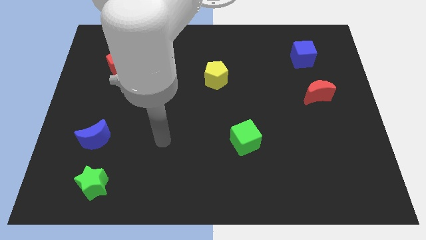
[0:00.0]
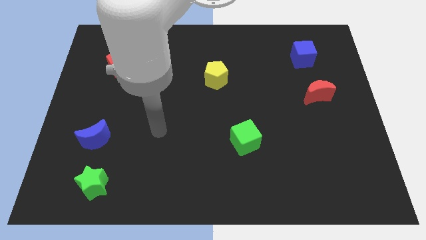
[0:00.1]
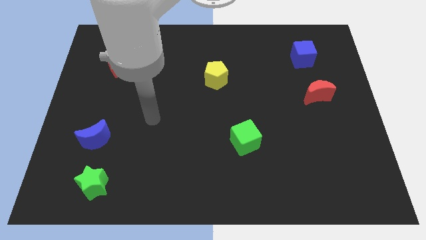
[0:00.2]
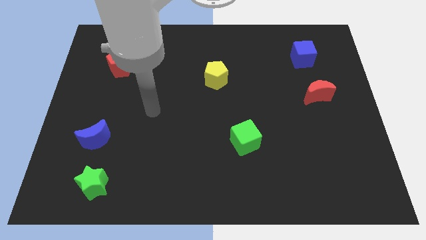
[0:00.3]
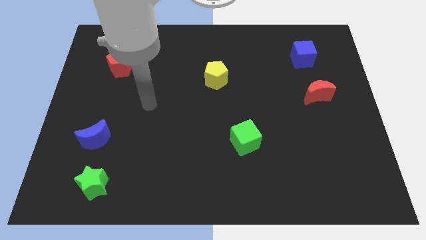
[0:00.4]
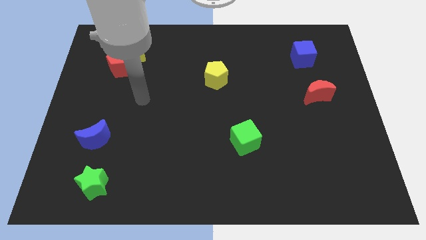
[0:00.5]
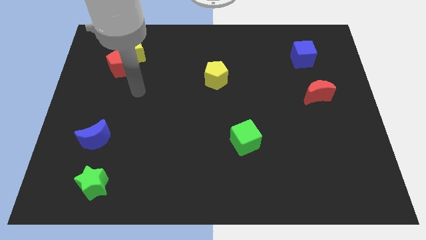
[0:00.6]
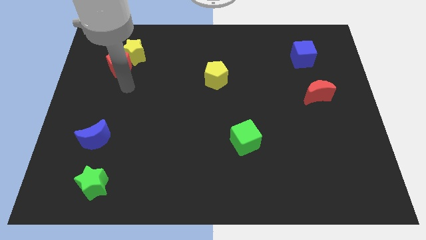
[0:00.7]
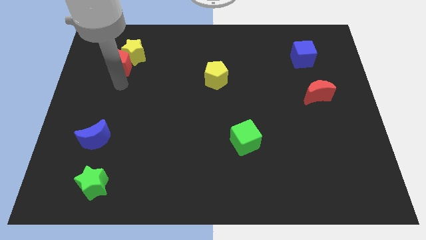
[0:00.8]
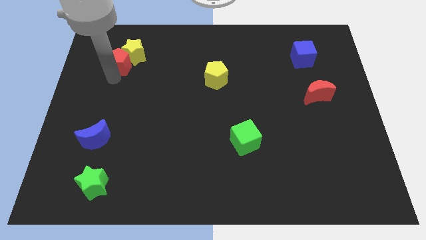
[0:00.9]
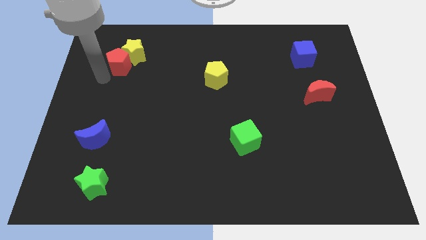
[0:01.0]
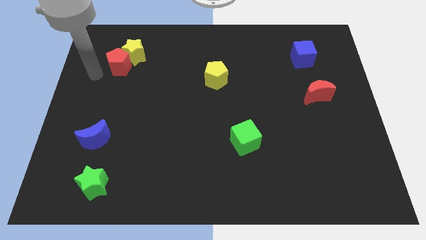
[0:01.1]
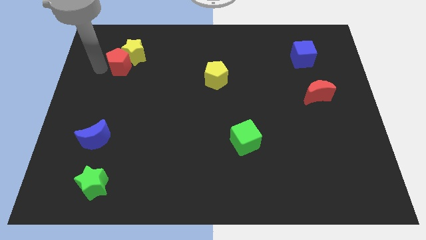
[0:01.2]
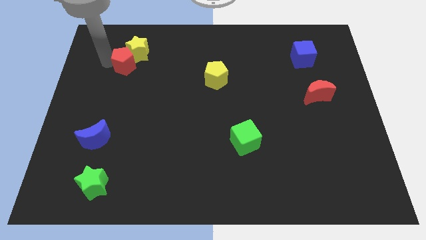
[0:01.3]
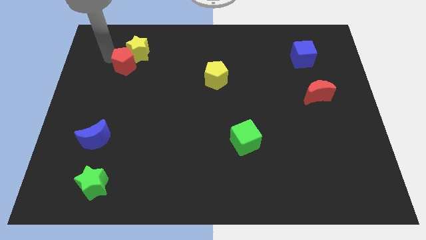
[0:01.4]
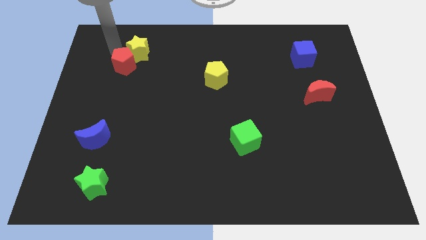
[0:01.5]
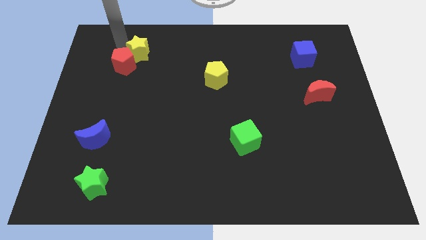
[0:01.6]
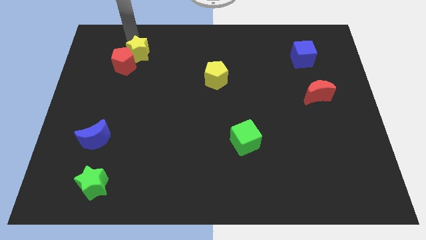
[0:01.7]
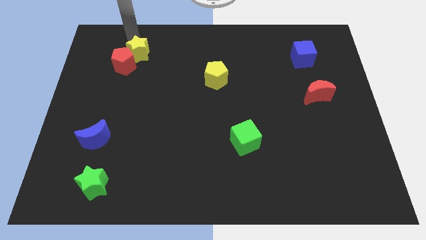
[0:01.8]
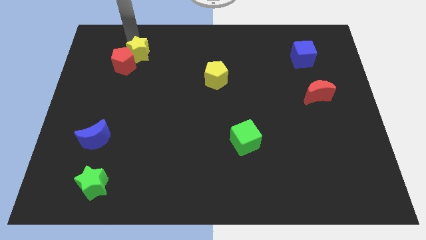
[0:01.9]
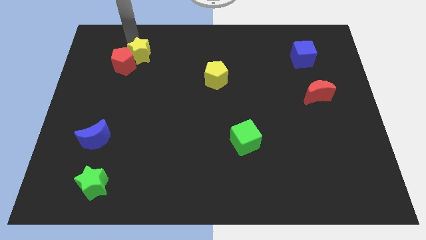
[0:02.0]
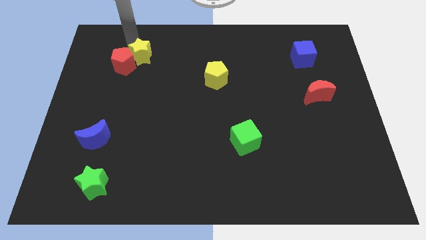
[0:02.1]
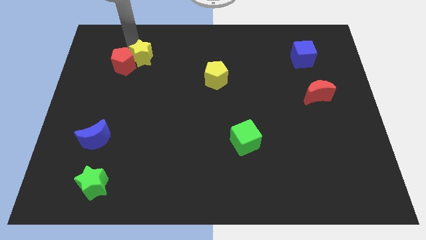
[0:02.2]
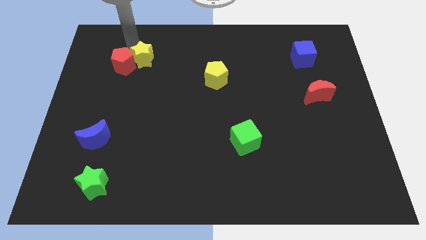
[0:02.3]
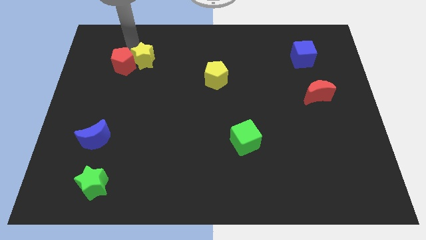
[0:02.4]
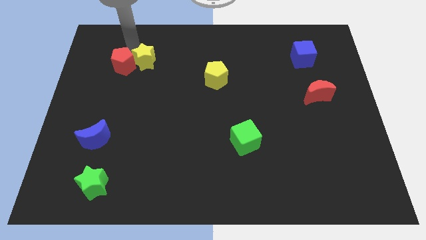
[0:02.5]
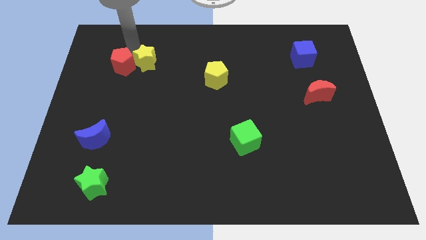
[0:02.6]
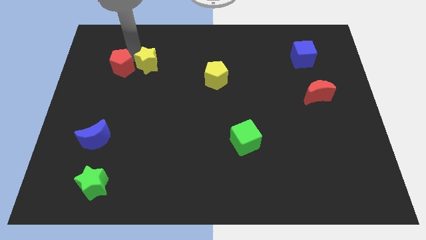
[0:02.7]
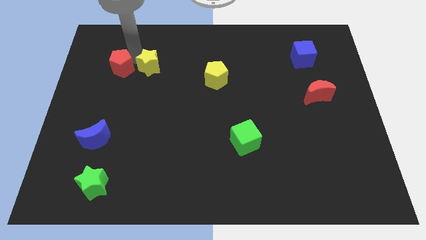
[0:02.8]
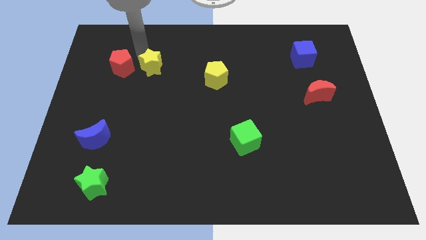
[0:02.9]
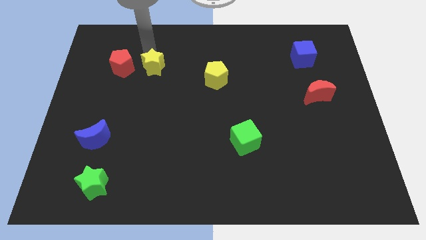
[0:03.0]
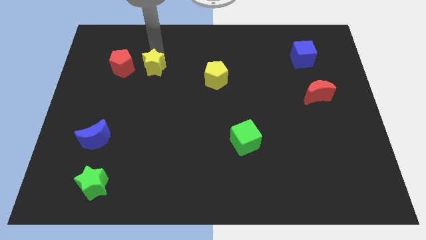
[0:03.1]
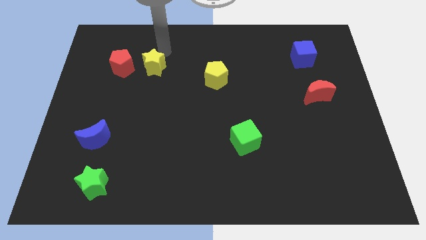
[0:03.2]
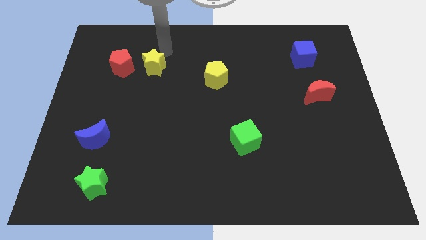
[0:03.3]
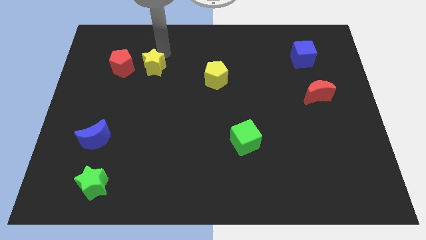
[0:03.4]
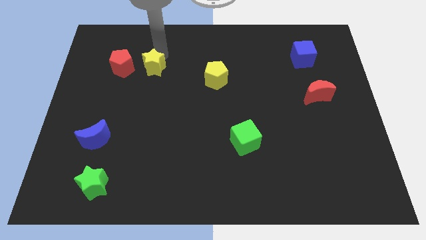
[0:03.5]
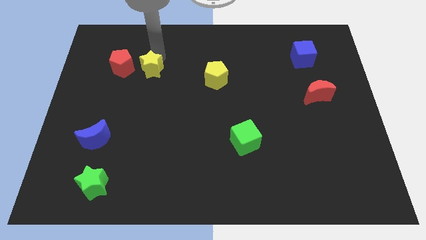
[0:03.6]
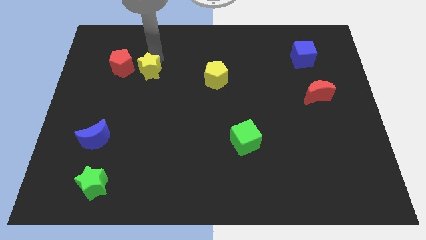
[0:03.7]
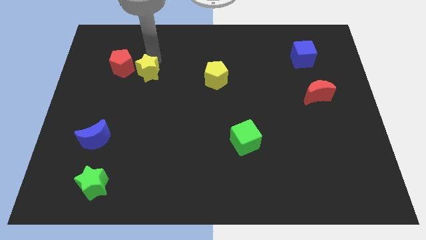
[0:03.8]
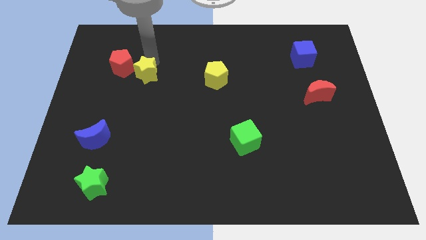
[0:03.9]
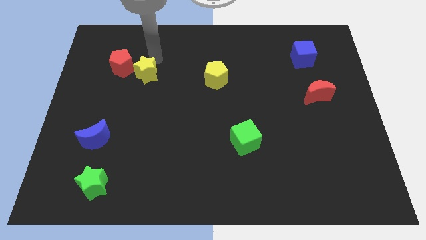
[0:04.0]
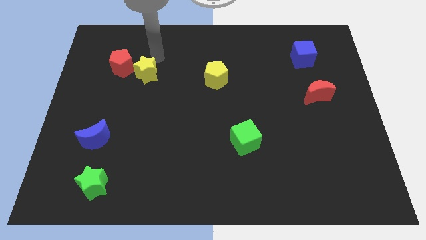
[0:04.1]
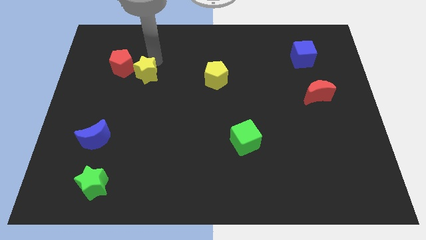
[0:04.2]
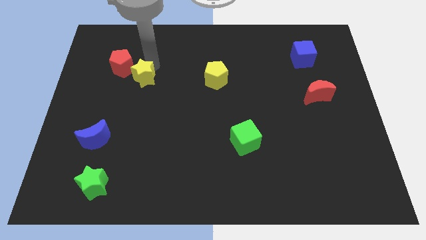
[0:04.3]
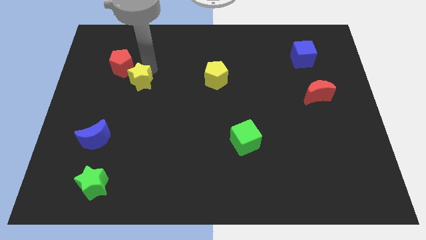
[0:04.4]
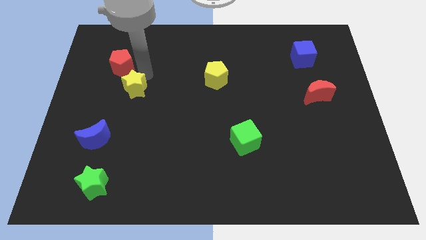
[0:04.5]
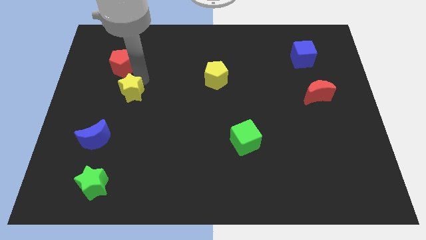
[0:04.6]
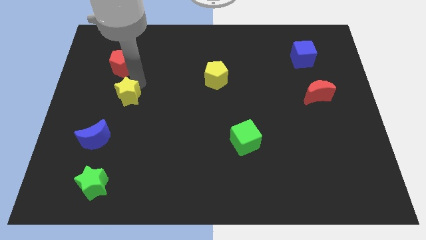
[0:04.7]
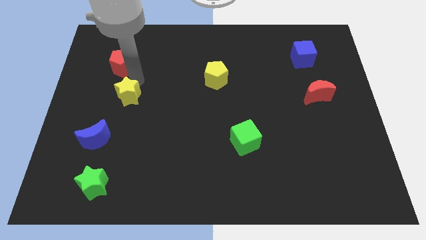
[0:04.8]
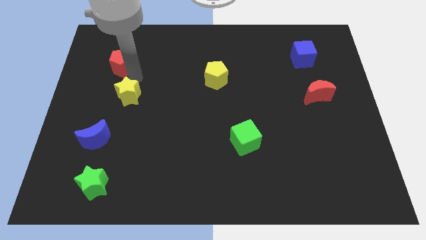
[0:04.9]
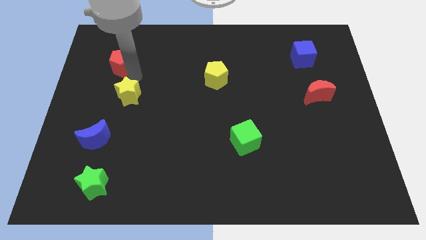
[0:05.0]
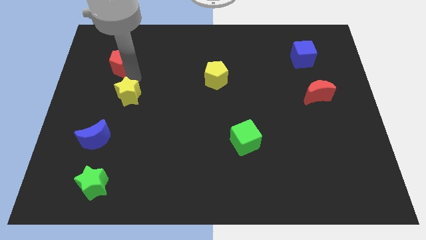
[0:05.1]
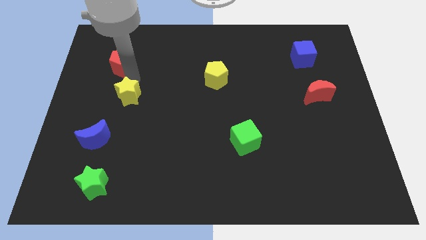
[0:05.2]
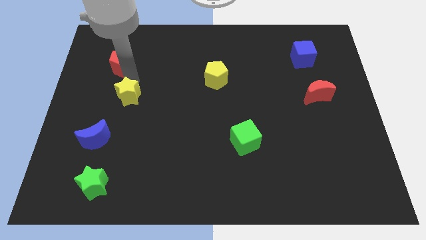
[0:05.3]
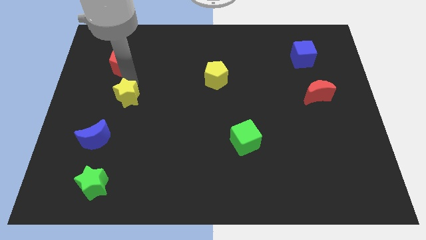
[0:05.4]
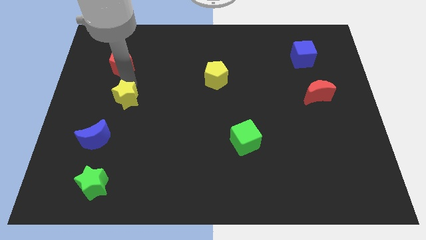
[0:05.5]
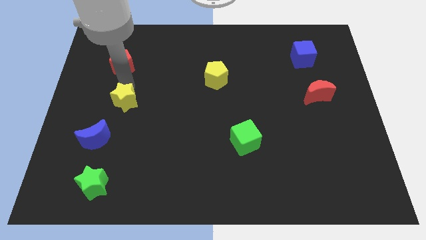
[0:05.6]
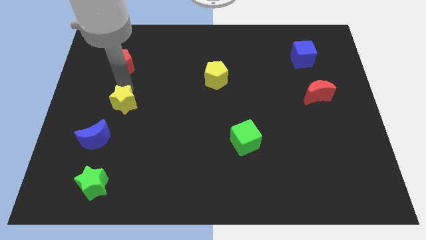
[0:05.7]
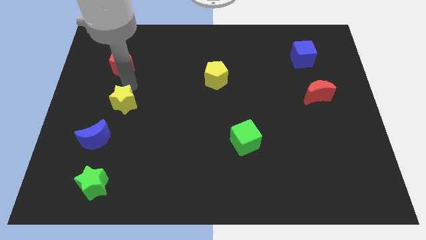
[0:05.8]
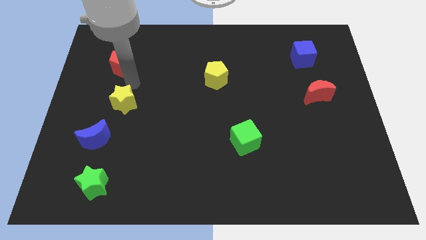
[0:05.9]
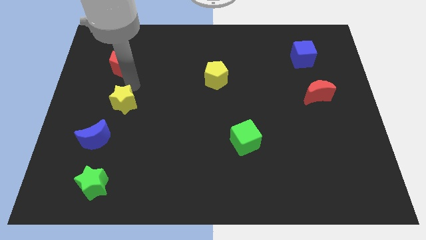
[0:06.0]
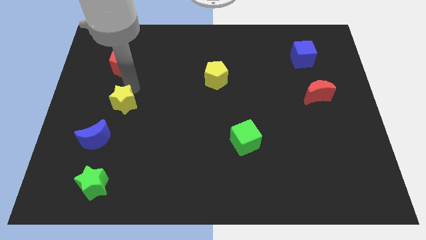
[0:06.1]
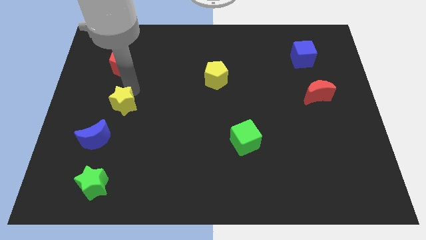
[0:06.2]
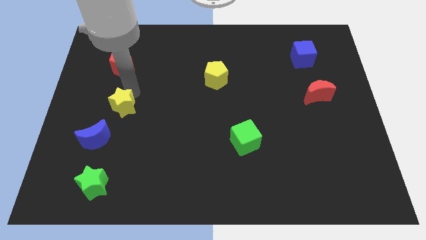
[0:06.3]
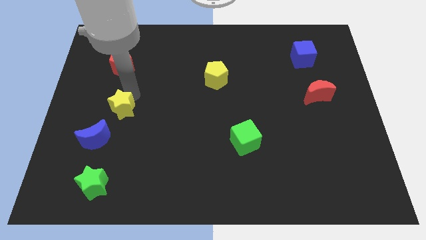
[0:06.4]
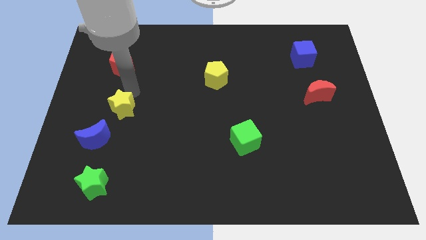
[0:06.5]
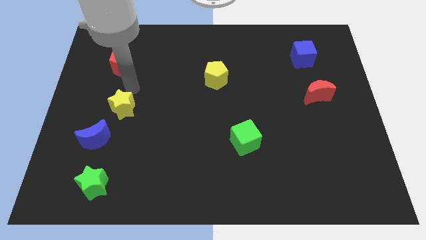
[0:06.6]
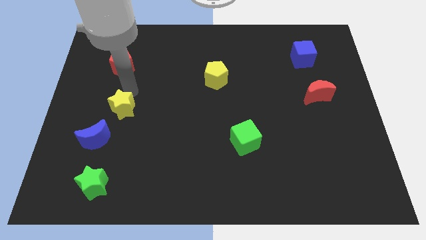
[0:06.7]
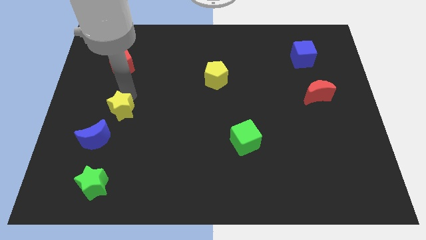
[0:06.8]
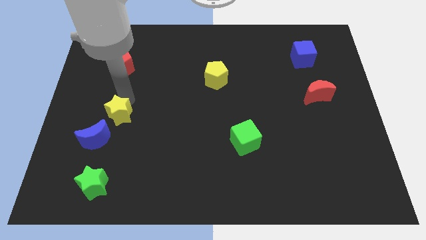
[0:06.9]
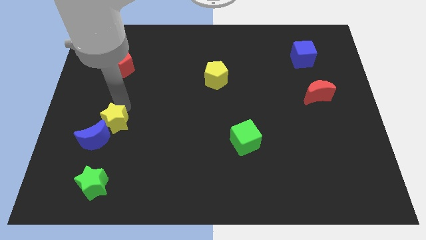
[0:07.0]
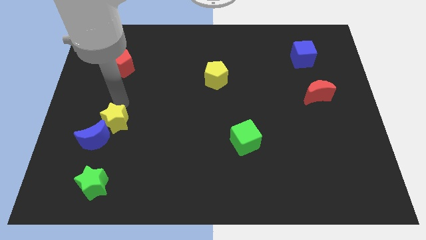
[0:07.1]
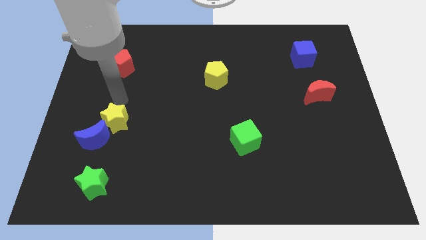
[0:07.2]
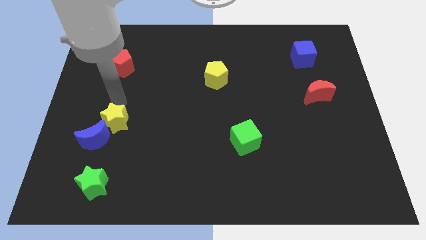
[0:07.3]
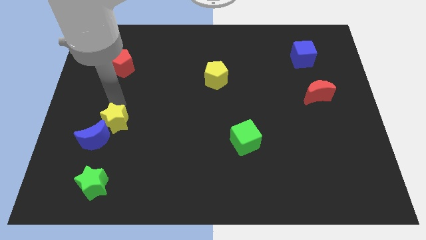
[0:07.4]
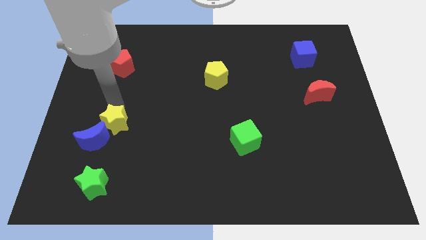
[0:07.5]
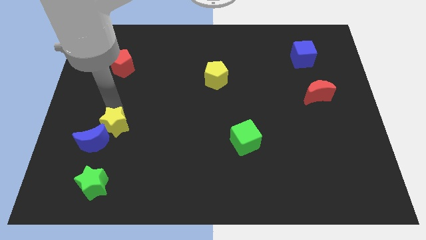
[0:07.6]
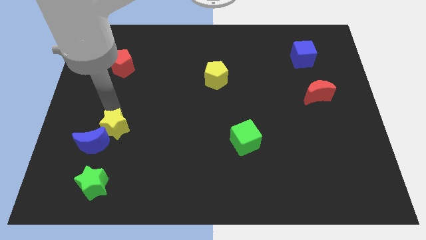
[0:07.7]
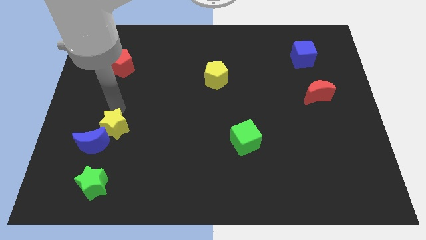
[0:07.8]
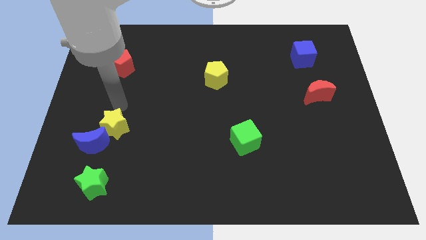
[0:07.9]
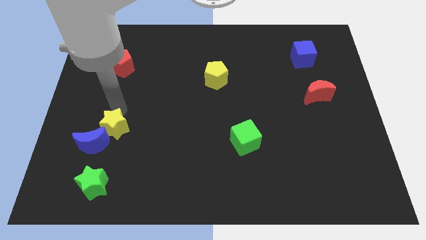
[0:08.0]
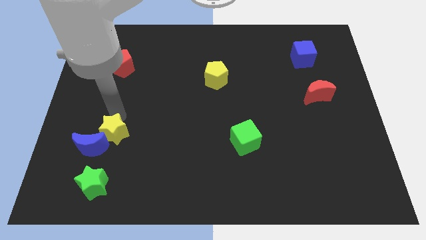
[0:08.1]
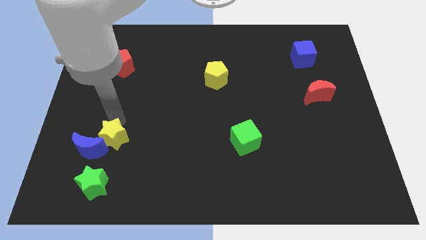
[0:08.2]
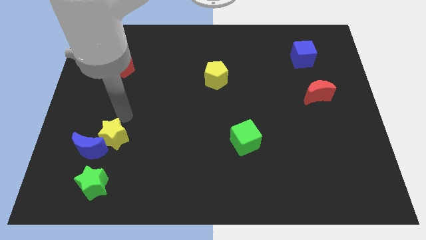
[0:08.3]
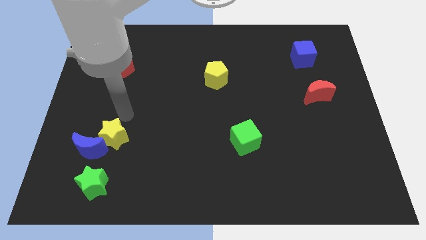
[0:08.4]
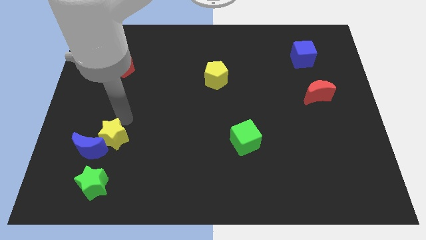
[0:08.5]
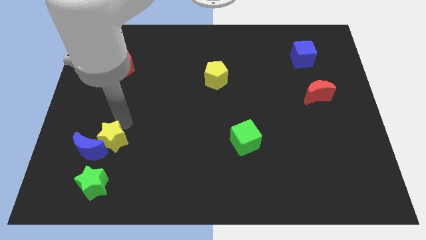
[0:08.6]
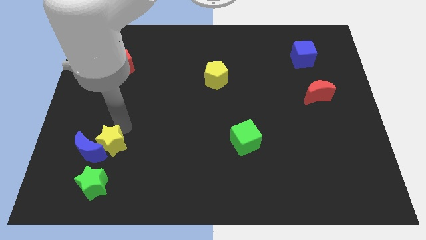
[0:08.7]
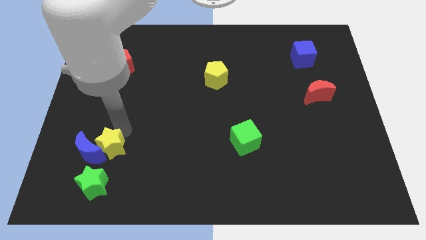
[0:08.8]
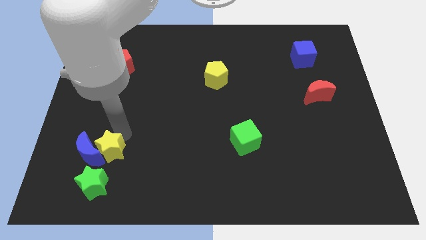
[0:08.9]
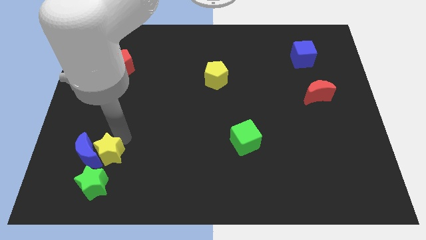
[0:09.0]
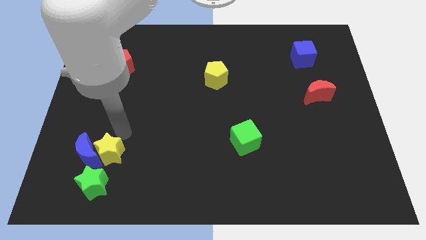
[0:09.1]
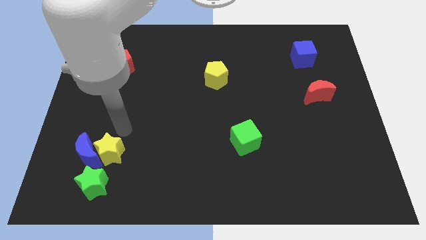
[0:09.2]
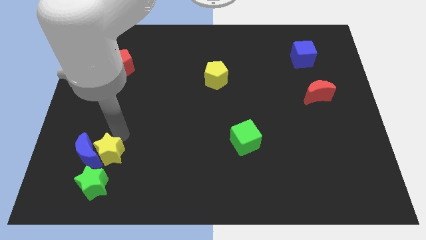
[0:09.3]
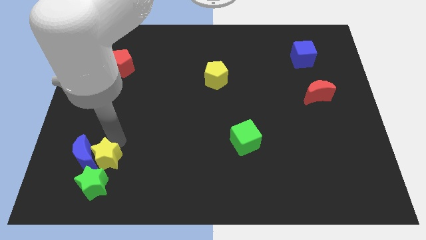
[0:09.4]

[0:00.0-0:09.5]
put the yellow star next to the green star
